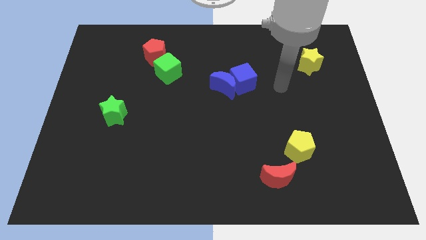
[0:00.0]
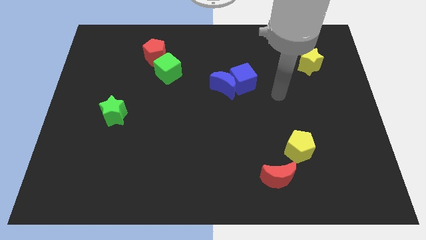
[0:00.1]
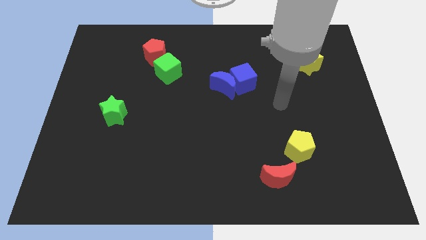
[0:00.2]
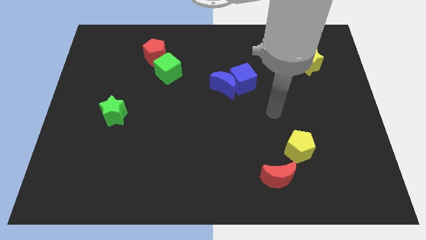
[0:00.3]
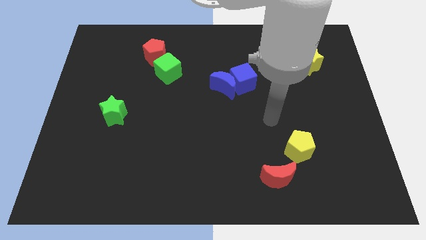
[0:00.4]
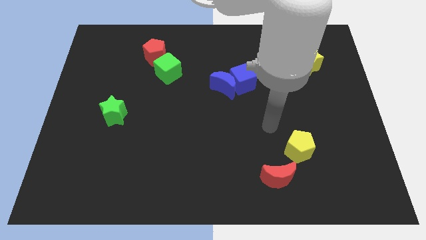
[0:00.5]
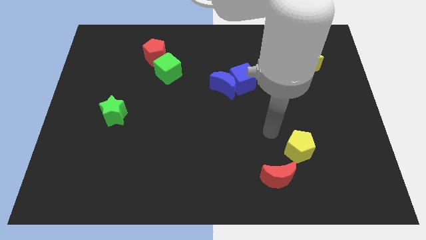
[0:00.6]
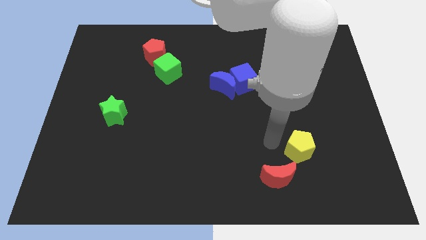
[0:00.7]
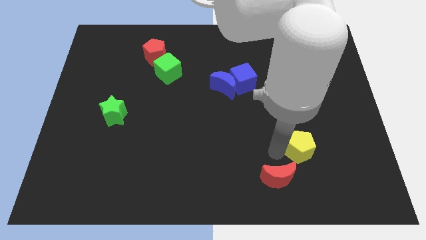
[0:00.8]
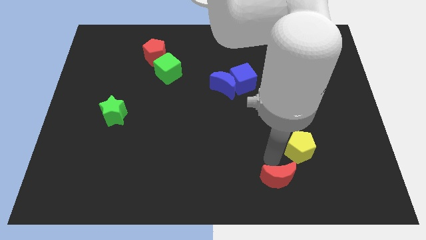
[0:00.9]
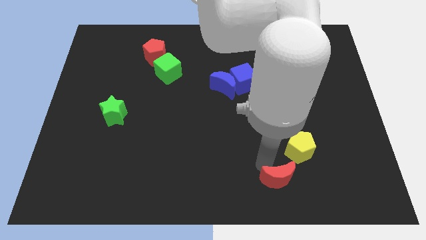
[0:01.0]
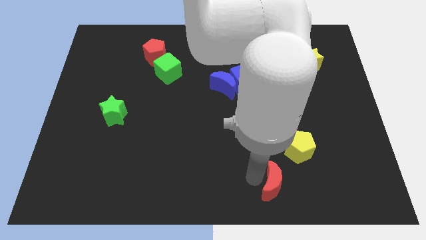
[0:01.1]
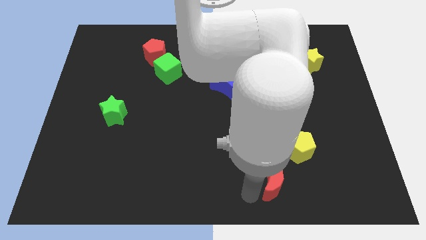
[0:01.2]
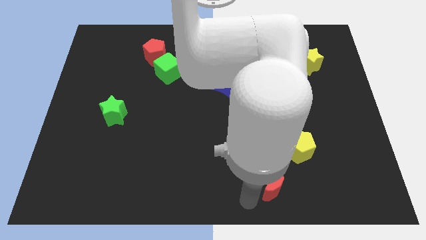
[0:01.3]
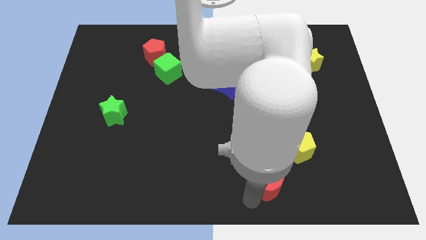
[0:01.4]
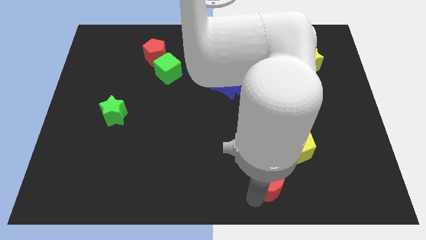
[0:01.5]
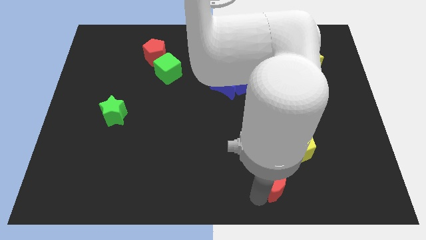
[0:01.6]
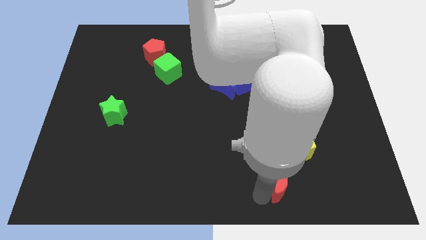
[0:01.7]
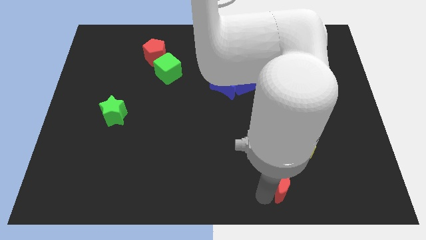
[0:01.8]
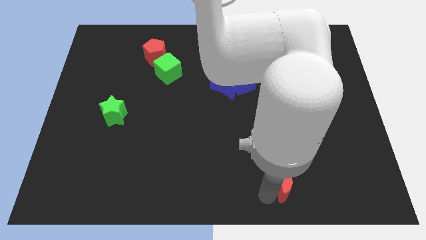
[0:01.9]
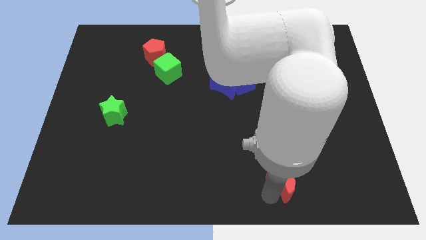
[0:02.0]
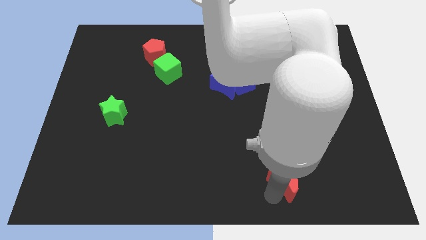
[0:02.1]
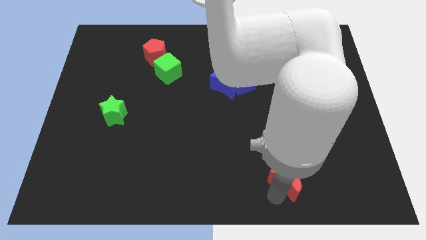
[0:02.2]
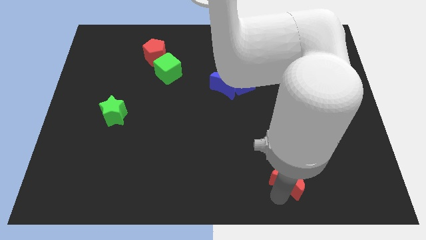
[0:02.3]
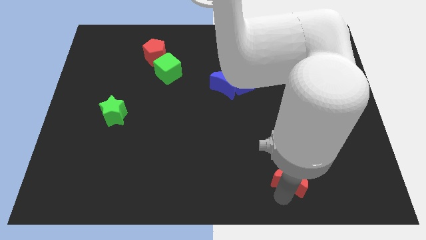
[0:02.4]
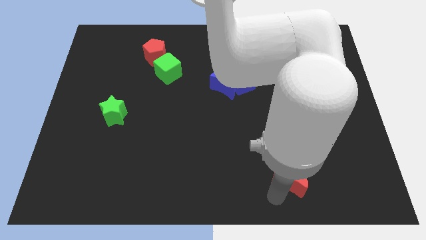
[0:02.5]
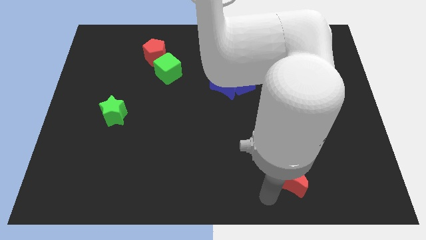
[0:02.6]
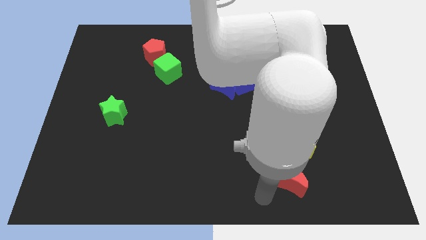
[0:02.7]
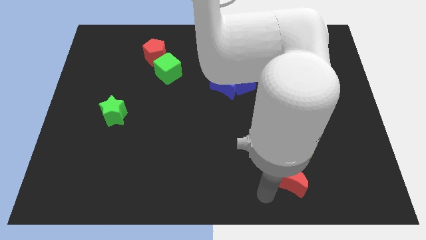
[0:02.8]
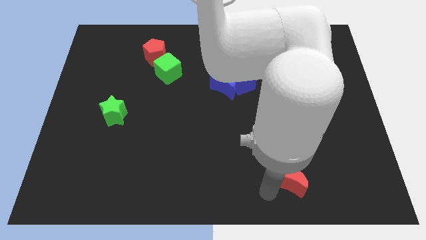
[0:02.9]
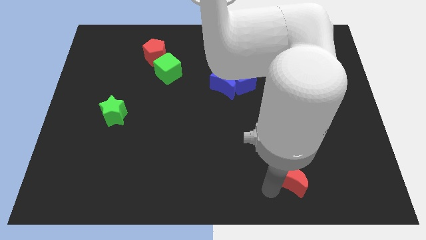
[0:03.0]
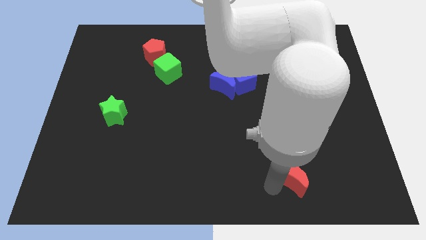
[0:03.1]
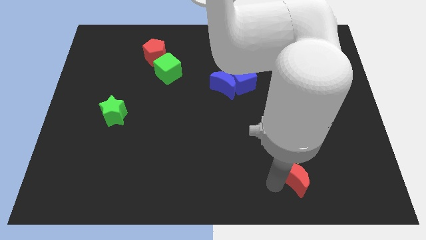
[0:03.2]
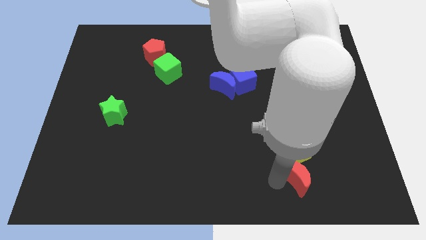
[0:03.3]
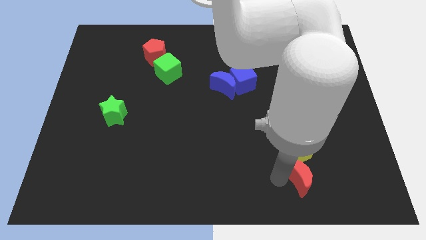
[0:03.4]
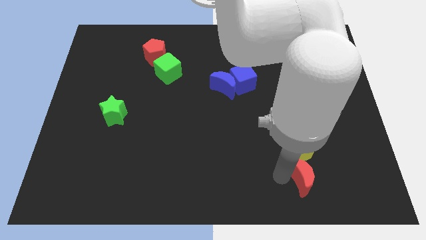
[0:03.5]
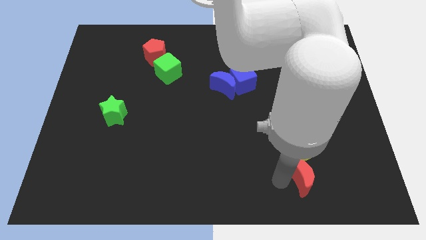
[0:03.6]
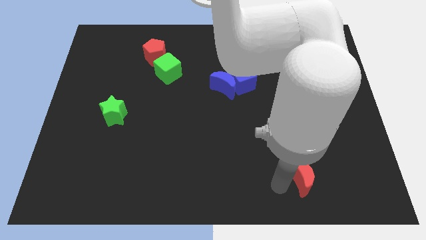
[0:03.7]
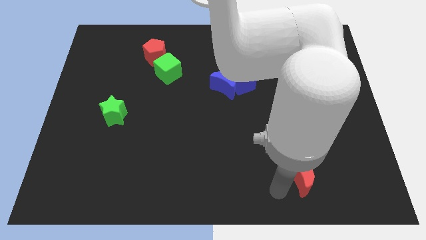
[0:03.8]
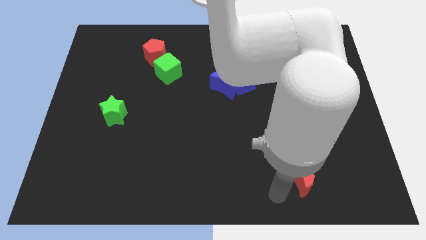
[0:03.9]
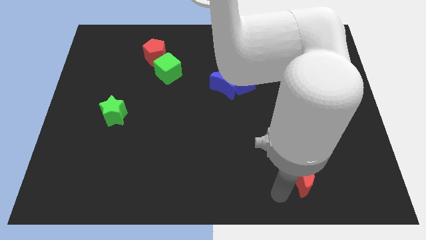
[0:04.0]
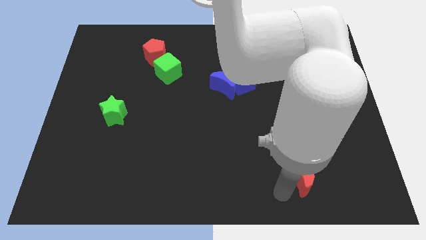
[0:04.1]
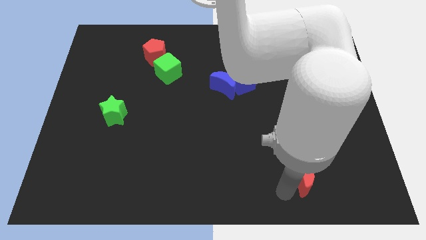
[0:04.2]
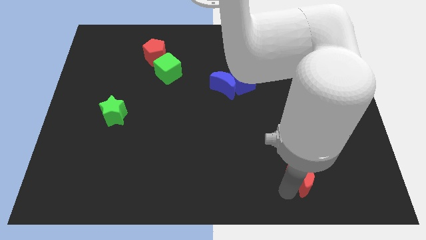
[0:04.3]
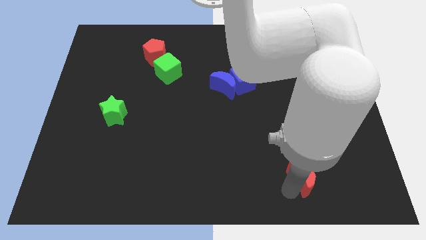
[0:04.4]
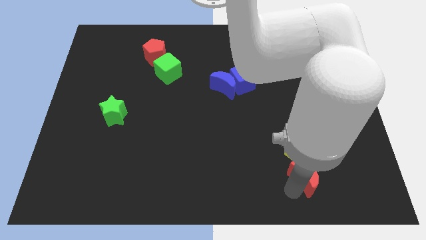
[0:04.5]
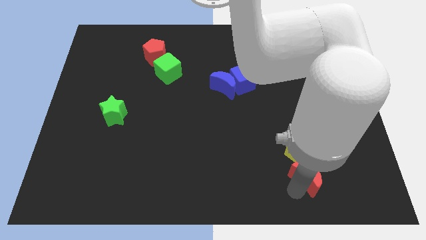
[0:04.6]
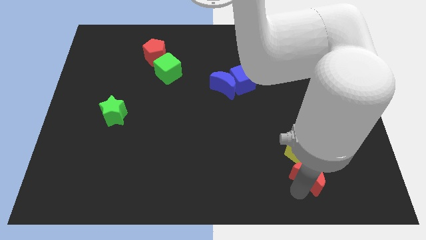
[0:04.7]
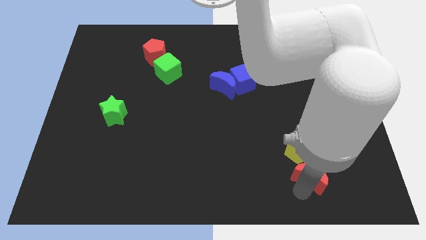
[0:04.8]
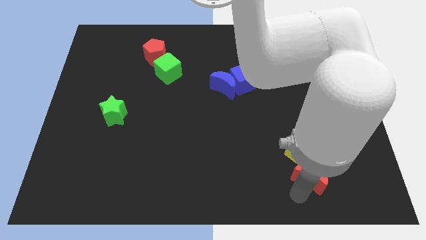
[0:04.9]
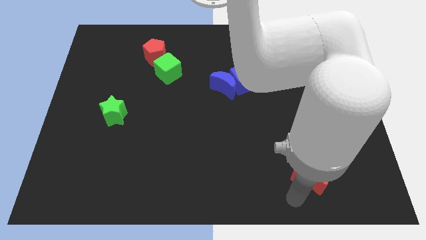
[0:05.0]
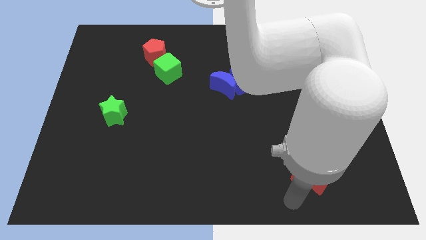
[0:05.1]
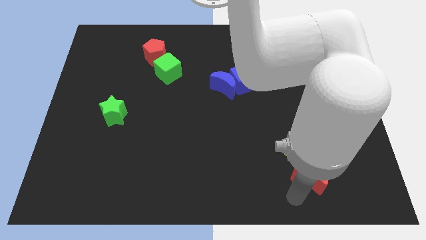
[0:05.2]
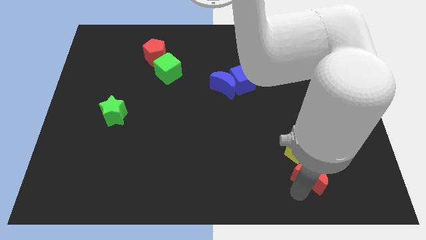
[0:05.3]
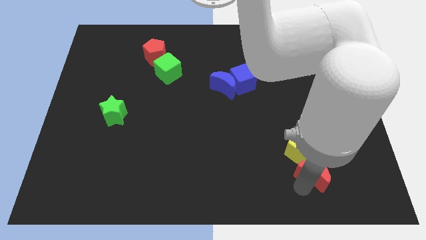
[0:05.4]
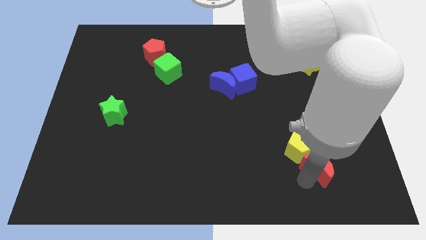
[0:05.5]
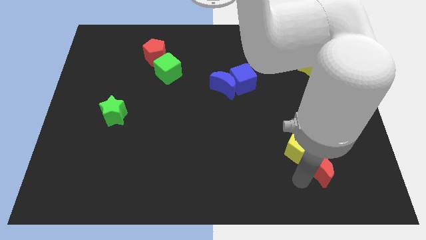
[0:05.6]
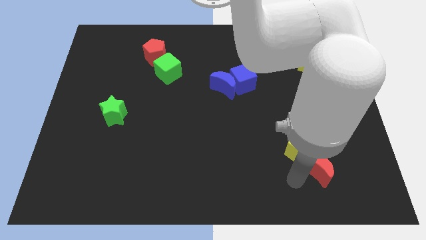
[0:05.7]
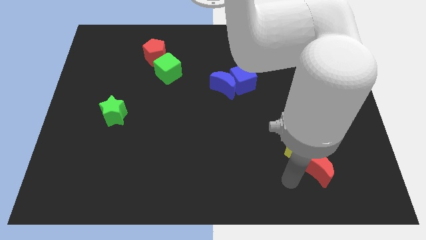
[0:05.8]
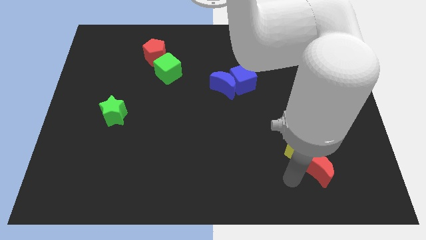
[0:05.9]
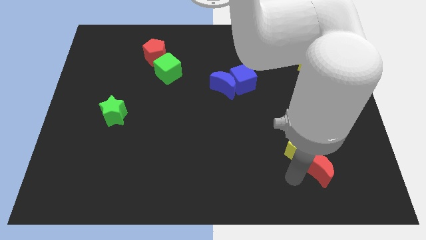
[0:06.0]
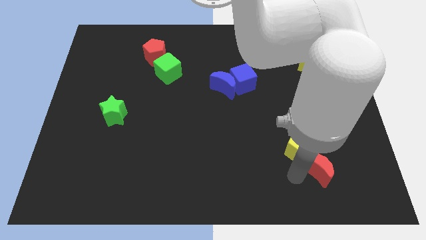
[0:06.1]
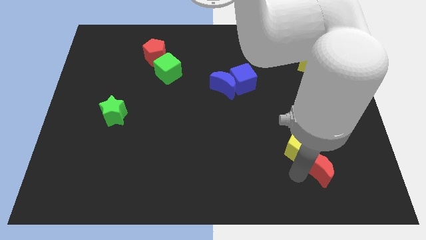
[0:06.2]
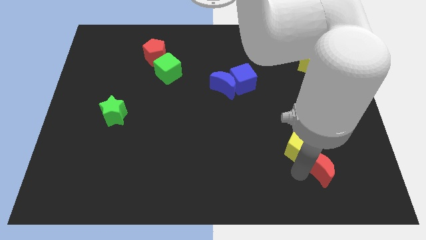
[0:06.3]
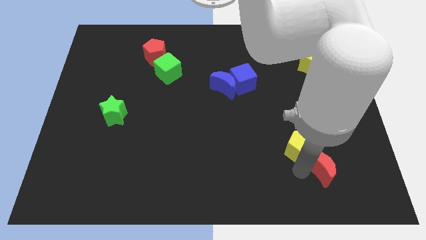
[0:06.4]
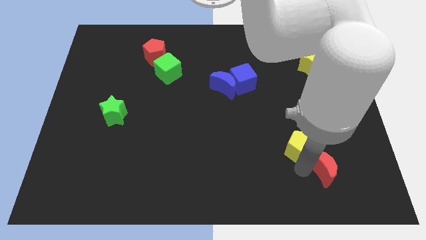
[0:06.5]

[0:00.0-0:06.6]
push the red moon just right of the yellow pentagon

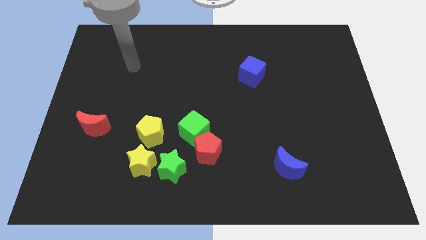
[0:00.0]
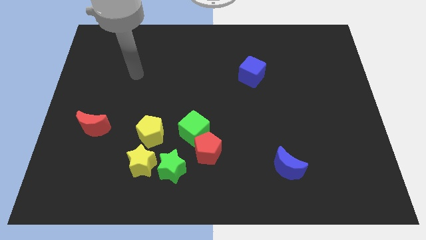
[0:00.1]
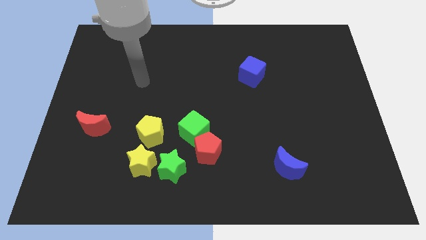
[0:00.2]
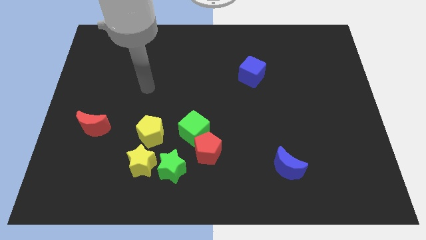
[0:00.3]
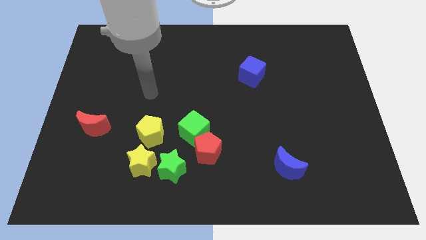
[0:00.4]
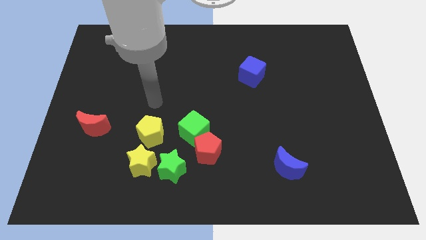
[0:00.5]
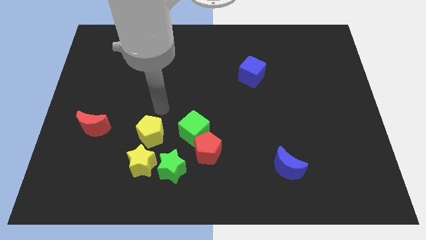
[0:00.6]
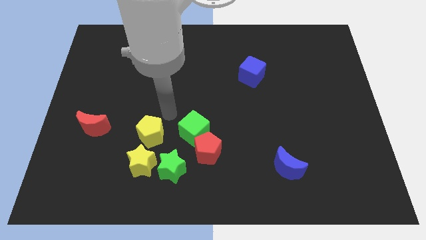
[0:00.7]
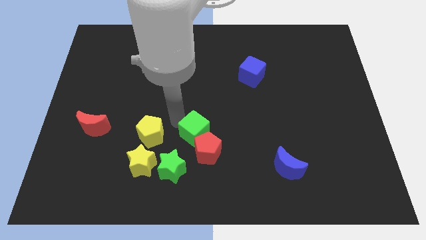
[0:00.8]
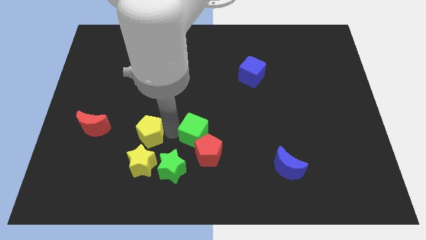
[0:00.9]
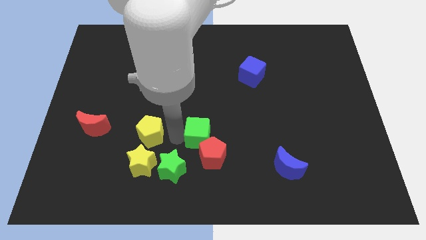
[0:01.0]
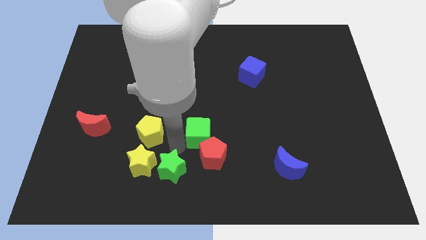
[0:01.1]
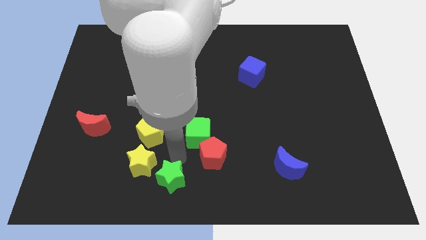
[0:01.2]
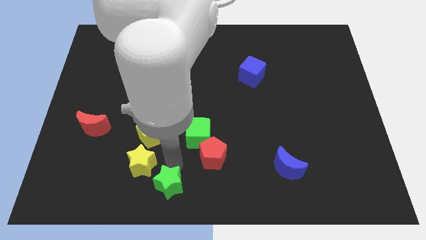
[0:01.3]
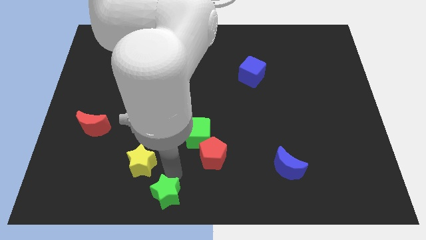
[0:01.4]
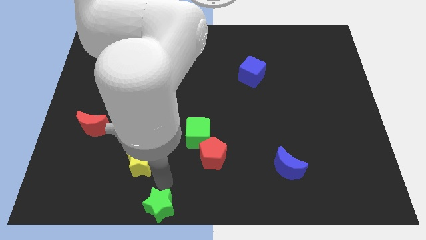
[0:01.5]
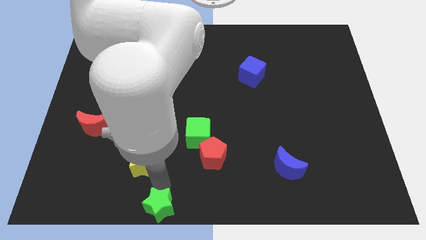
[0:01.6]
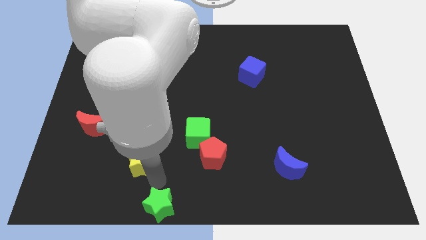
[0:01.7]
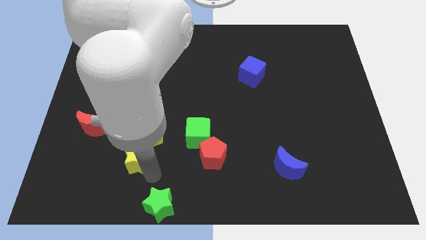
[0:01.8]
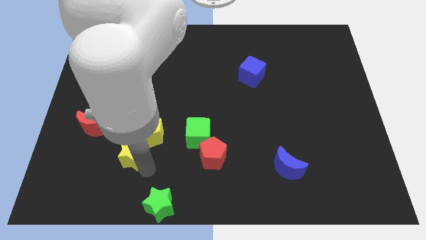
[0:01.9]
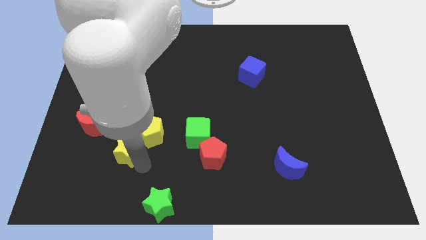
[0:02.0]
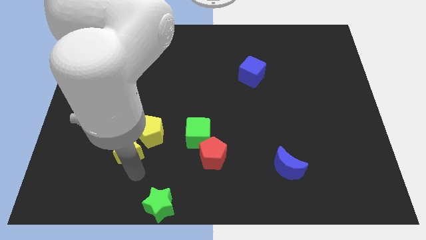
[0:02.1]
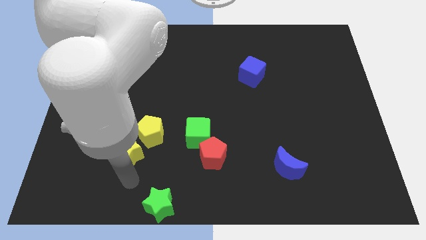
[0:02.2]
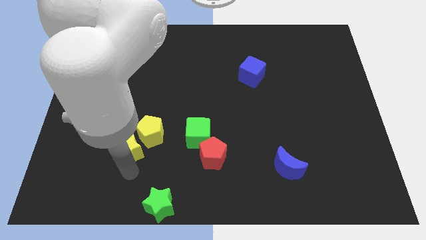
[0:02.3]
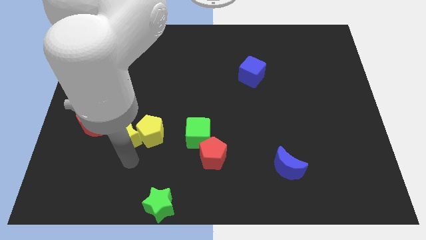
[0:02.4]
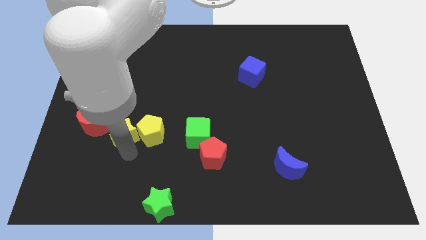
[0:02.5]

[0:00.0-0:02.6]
put the yellow star to the top left of the yellow pentagon
